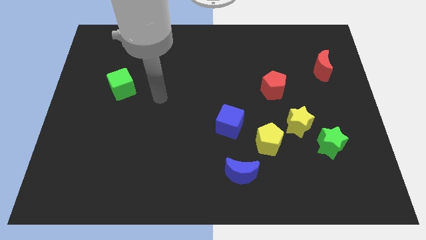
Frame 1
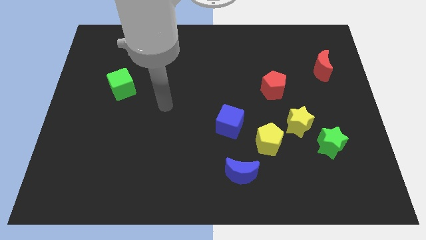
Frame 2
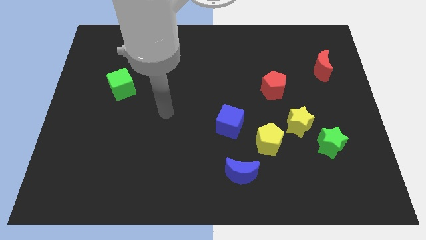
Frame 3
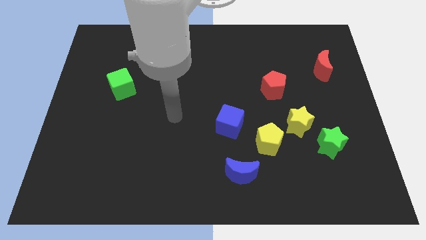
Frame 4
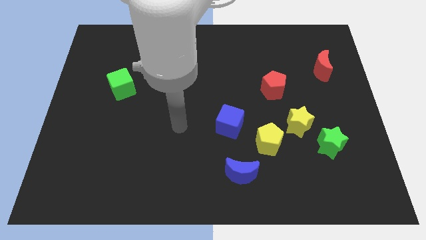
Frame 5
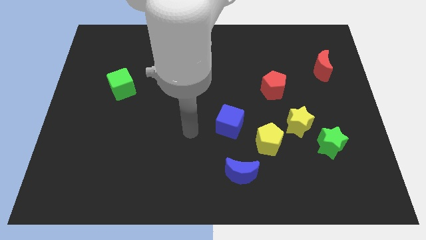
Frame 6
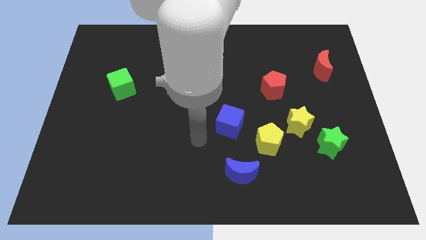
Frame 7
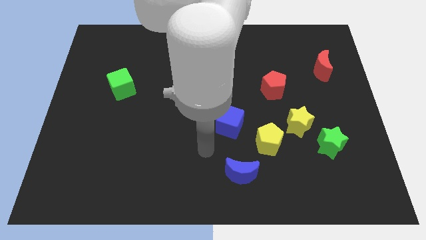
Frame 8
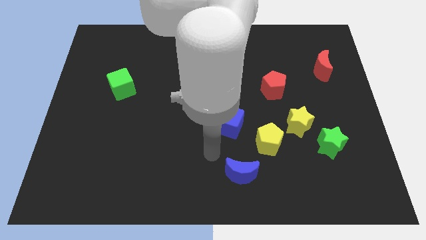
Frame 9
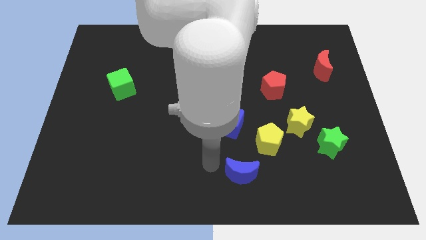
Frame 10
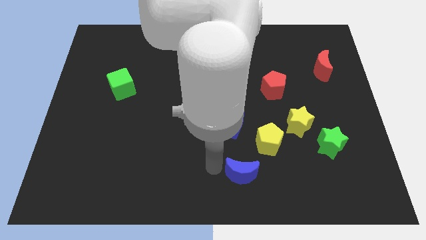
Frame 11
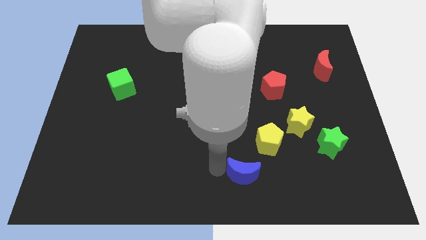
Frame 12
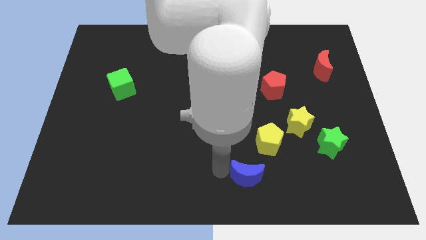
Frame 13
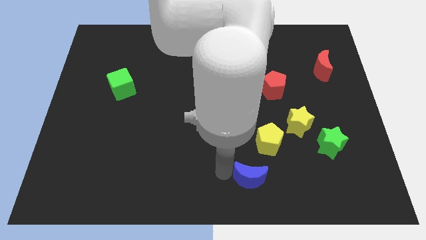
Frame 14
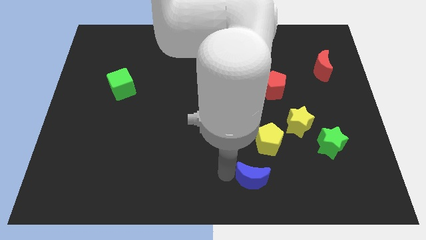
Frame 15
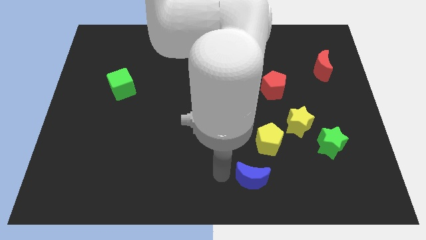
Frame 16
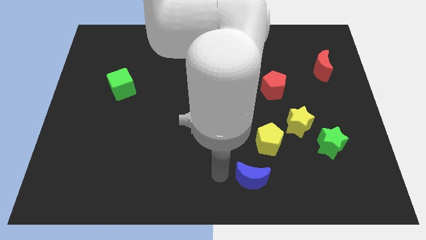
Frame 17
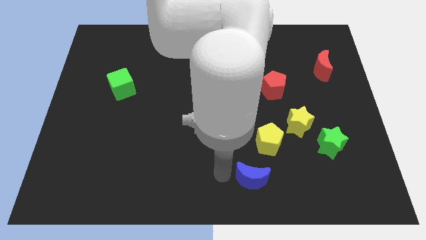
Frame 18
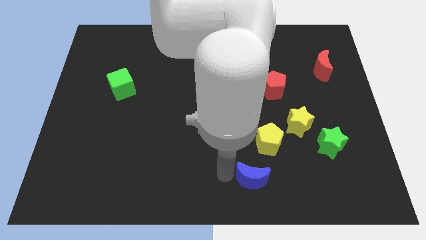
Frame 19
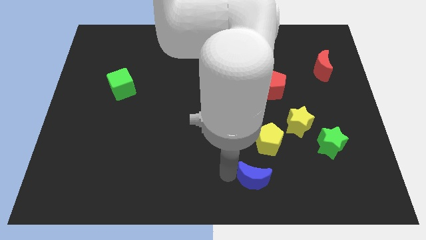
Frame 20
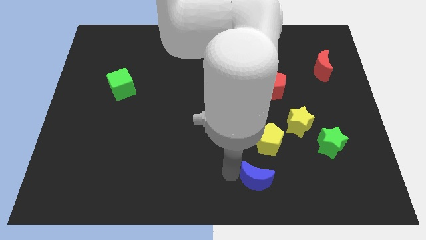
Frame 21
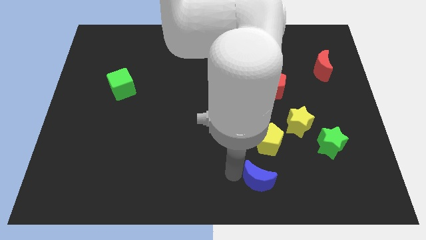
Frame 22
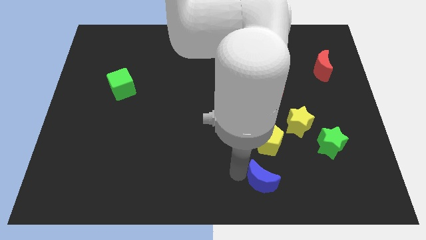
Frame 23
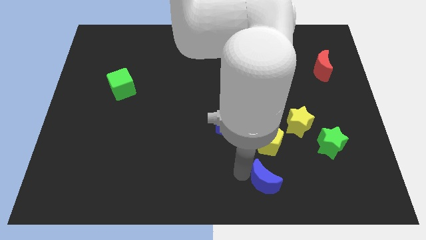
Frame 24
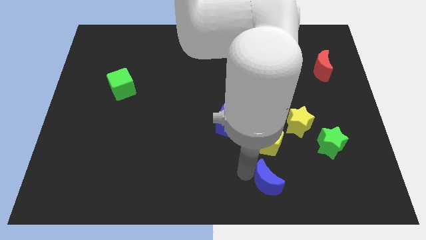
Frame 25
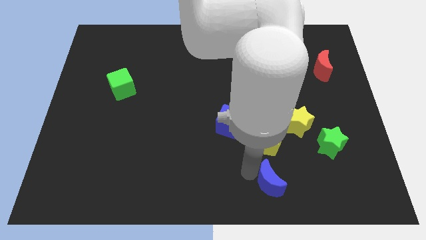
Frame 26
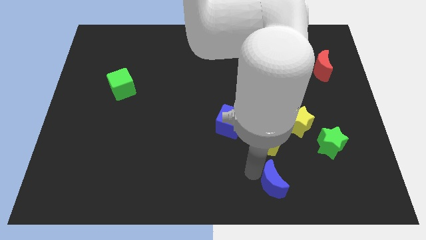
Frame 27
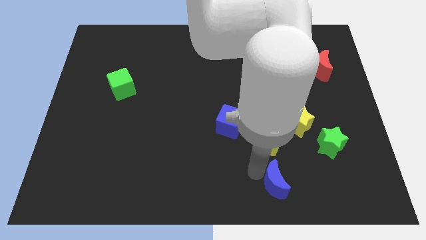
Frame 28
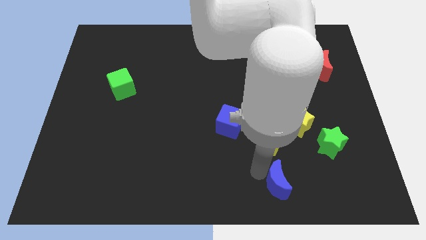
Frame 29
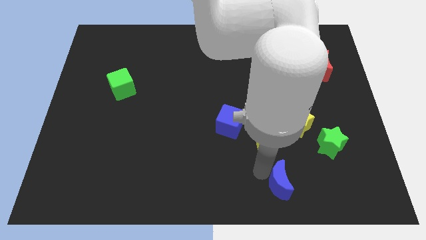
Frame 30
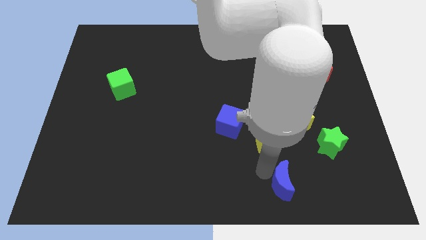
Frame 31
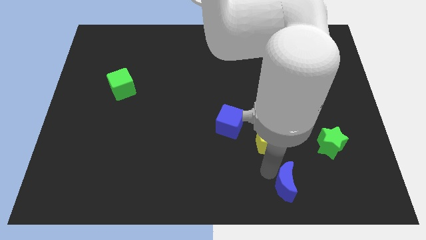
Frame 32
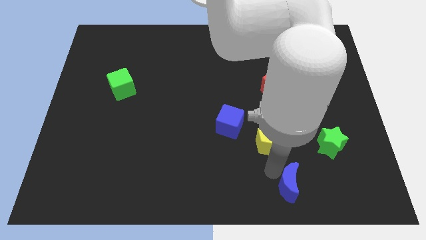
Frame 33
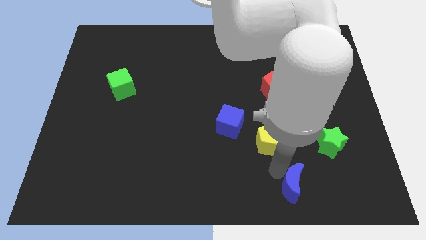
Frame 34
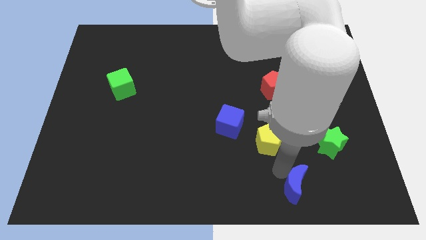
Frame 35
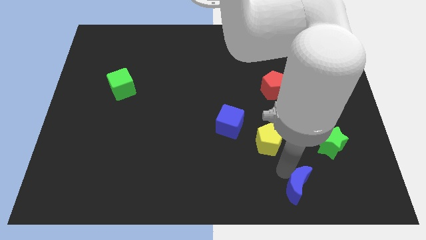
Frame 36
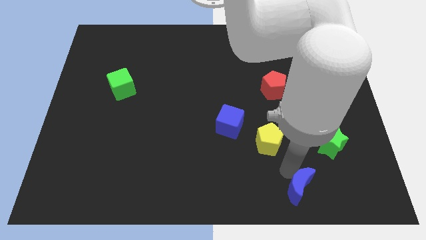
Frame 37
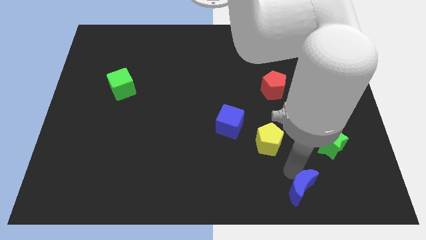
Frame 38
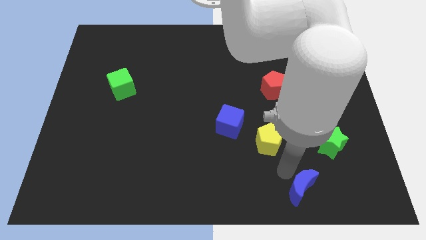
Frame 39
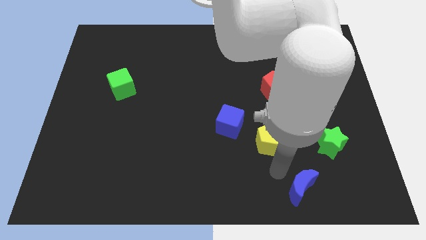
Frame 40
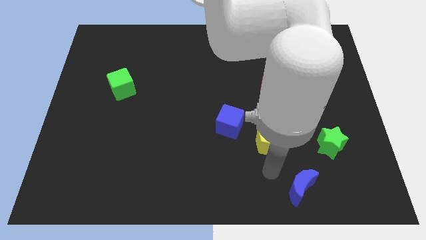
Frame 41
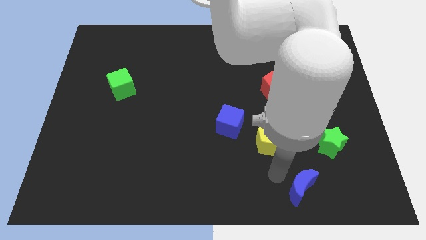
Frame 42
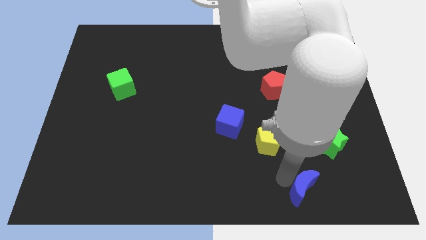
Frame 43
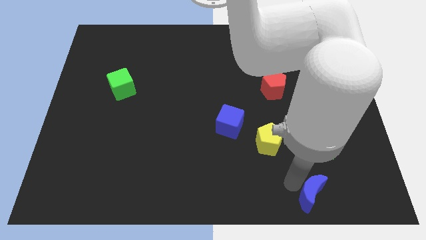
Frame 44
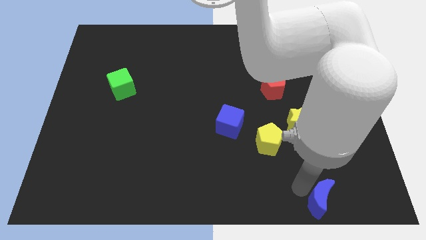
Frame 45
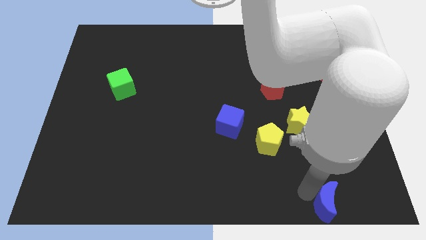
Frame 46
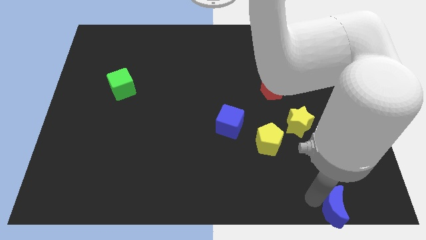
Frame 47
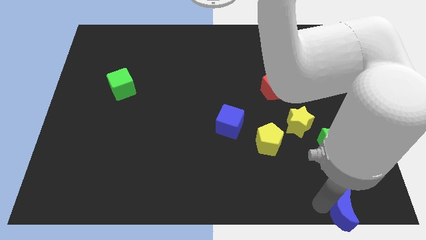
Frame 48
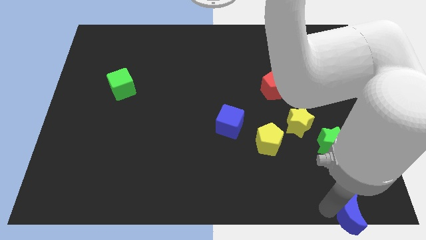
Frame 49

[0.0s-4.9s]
push the blue moon to the bottom right corner

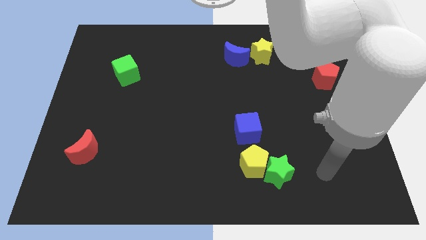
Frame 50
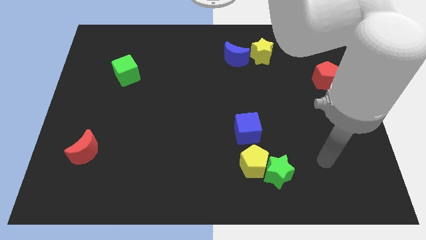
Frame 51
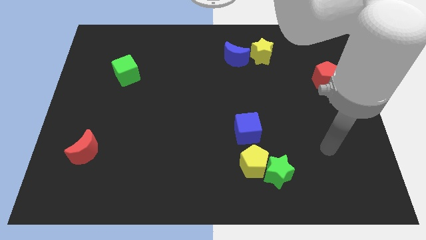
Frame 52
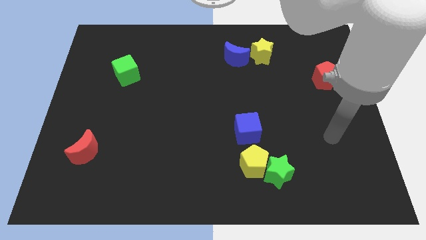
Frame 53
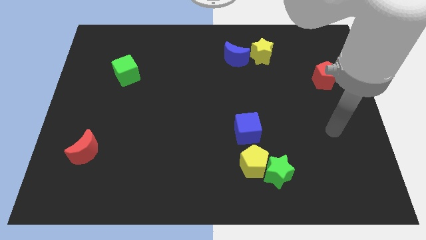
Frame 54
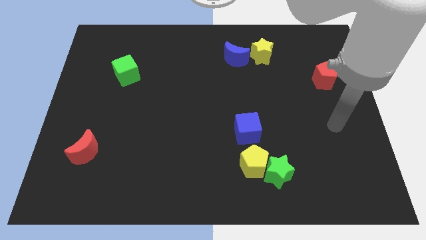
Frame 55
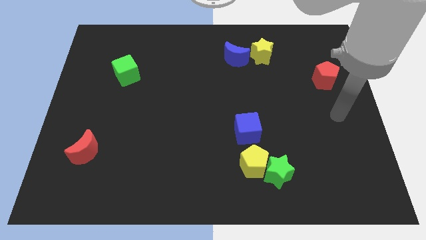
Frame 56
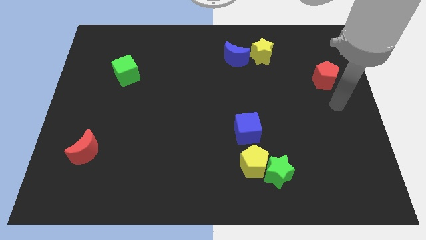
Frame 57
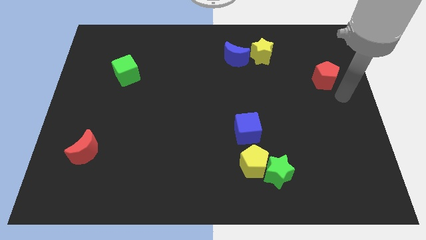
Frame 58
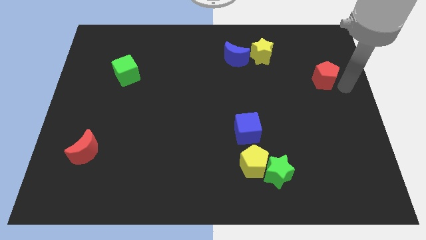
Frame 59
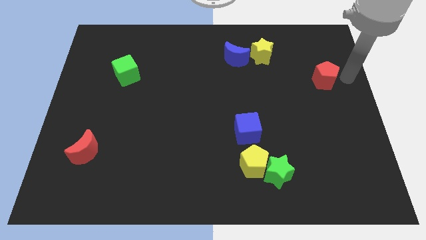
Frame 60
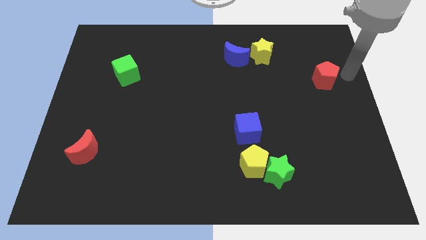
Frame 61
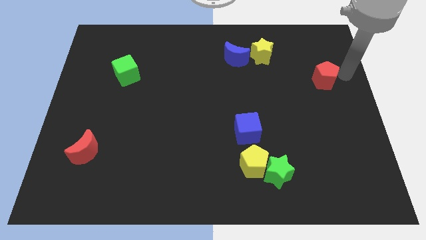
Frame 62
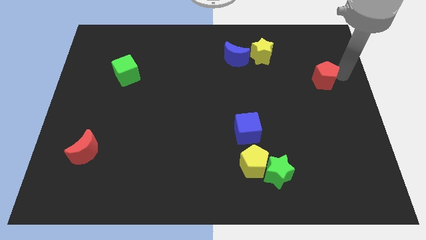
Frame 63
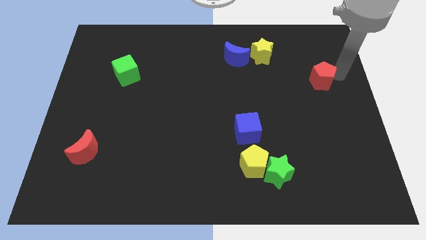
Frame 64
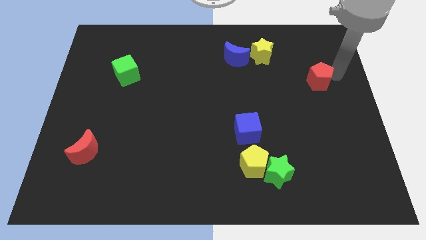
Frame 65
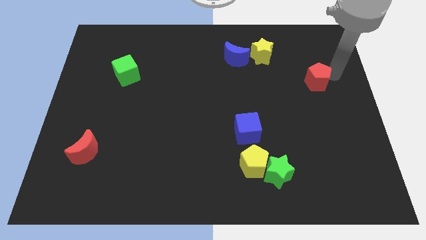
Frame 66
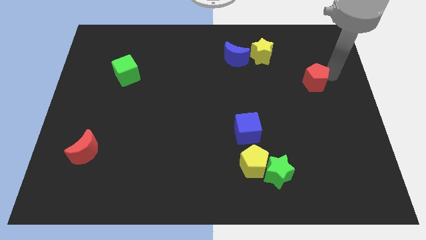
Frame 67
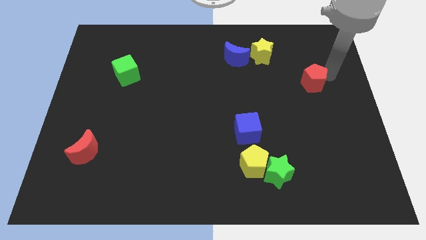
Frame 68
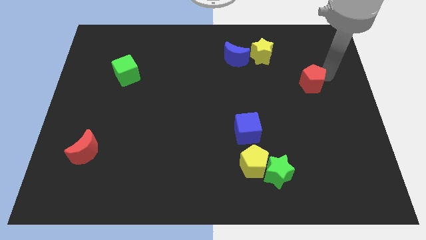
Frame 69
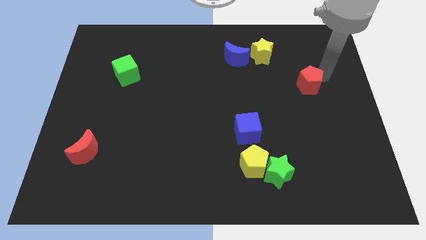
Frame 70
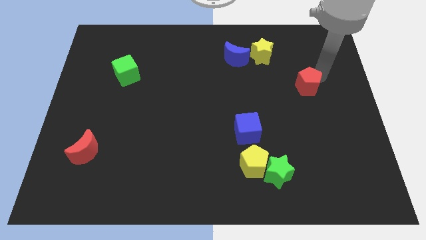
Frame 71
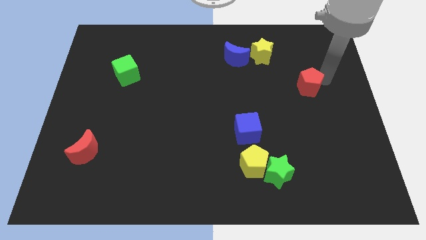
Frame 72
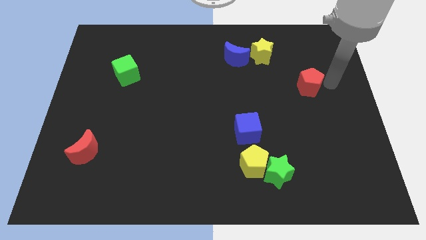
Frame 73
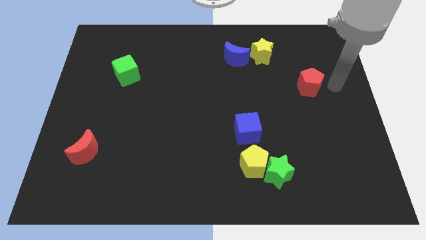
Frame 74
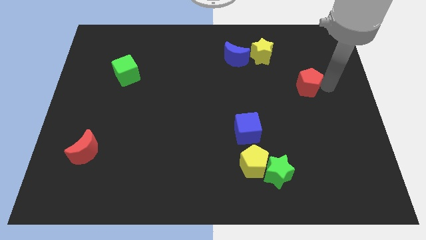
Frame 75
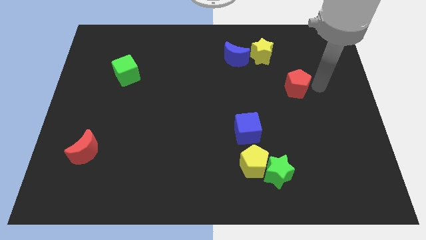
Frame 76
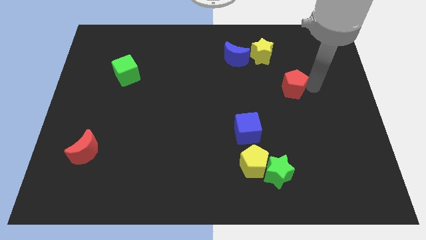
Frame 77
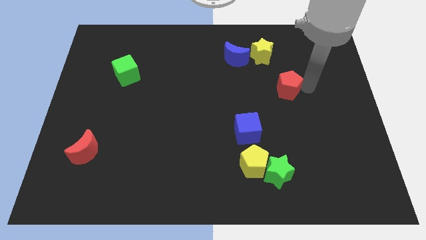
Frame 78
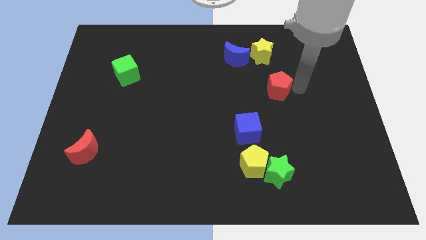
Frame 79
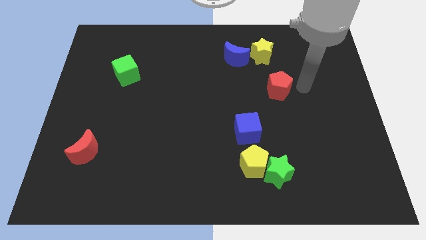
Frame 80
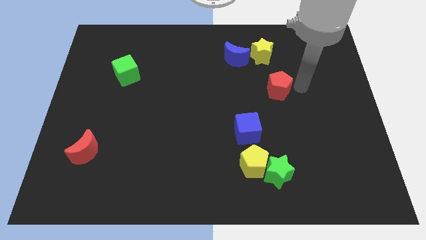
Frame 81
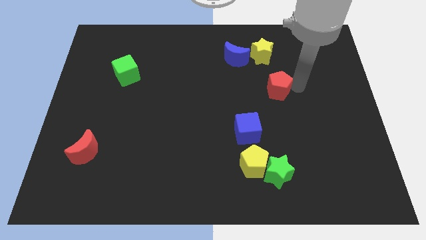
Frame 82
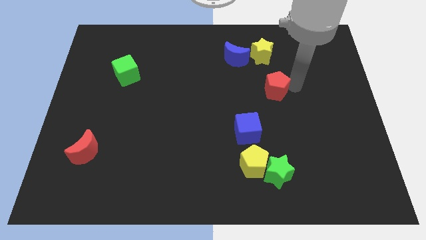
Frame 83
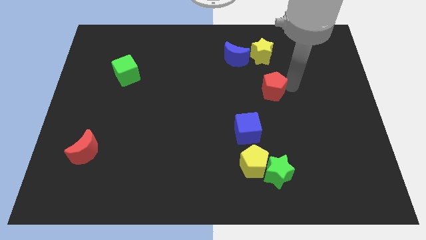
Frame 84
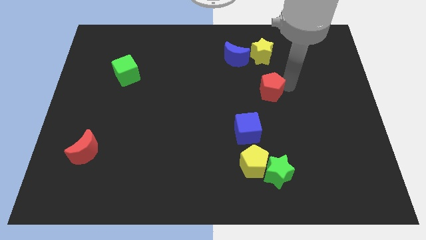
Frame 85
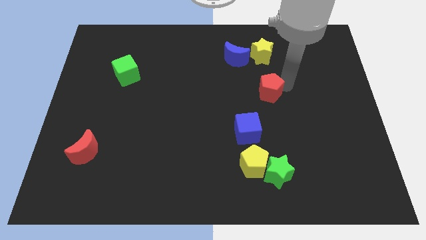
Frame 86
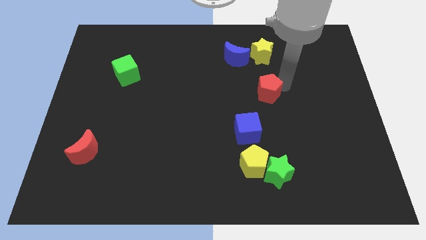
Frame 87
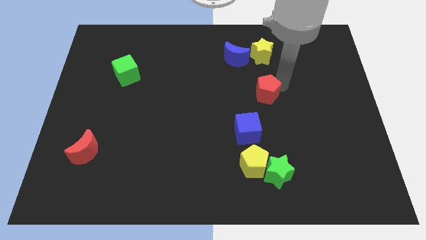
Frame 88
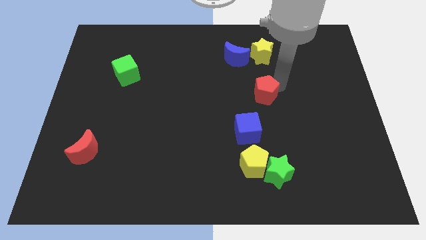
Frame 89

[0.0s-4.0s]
push the red pentagon to the middle
